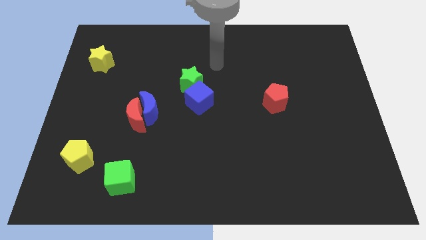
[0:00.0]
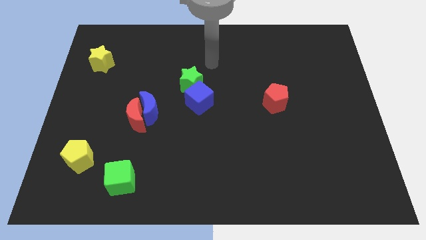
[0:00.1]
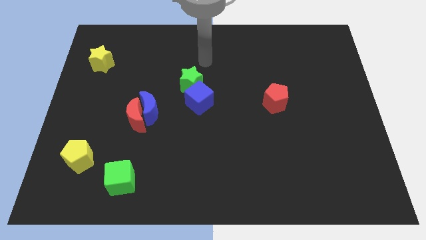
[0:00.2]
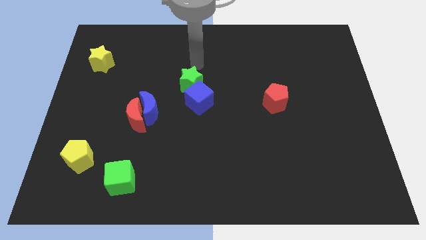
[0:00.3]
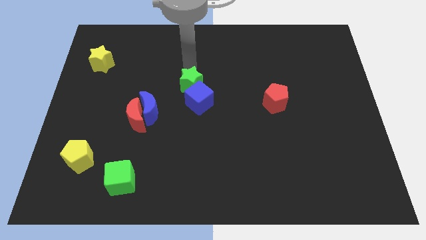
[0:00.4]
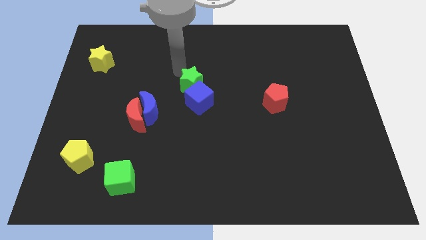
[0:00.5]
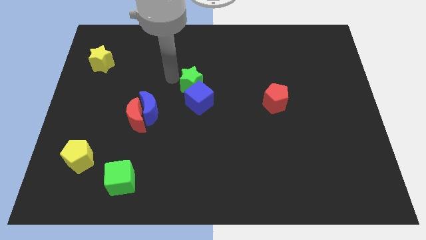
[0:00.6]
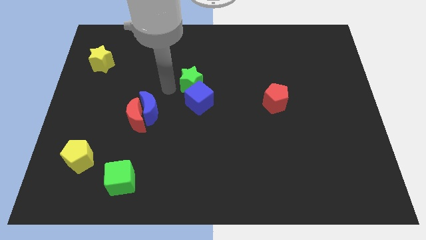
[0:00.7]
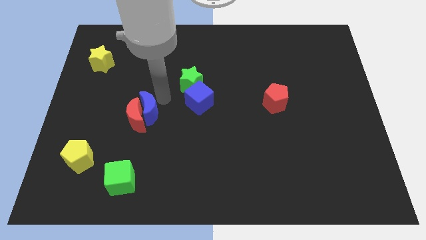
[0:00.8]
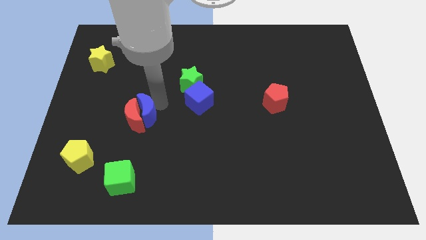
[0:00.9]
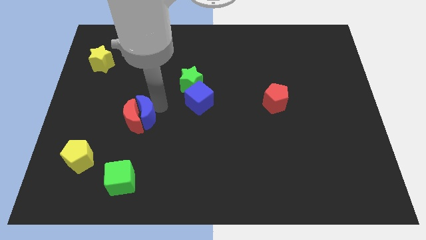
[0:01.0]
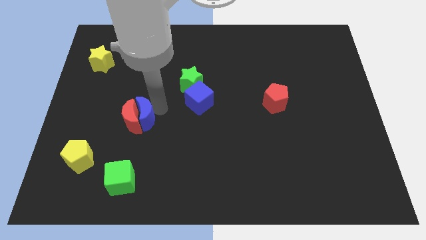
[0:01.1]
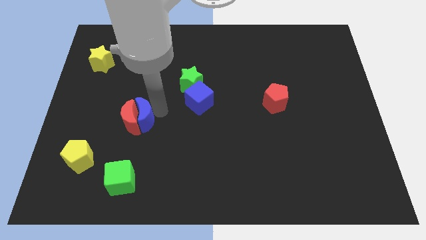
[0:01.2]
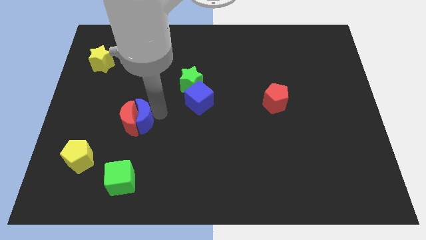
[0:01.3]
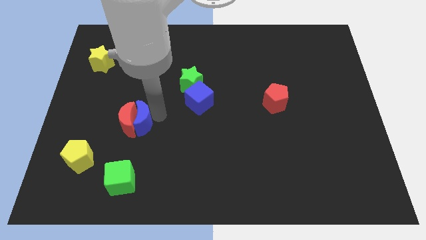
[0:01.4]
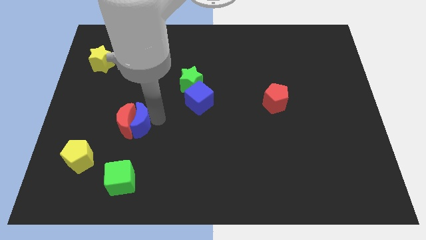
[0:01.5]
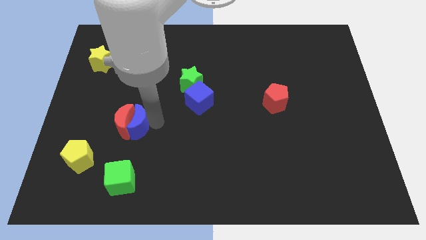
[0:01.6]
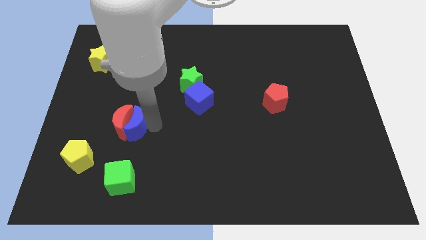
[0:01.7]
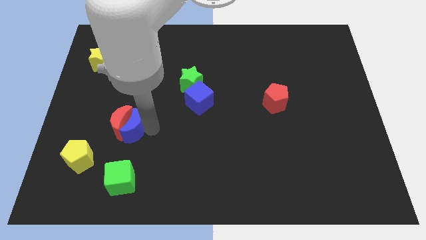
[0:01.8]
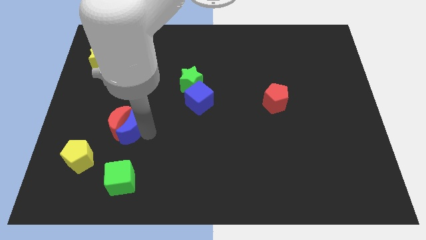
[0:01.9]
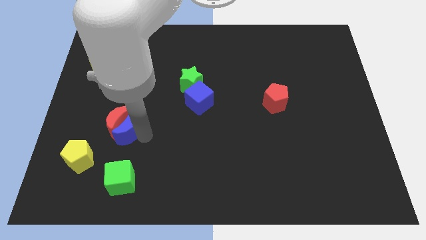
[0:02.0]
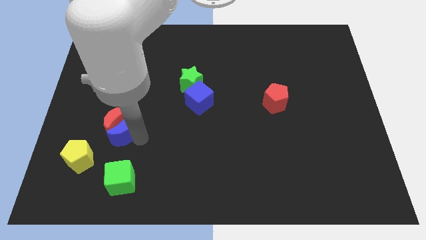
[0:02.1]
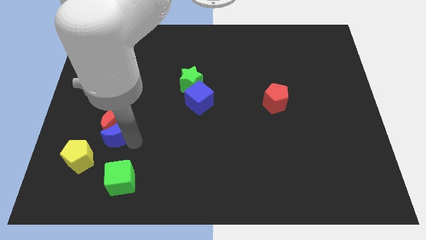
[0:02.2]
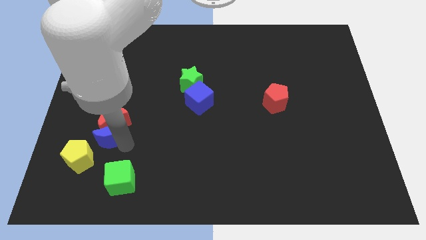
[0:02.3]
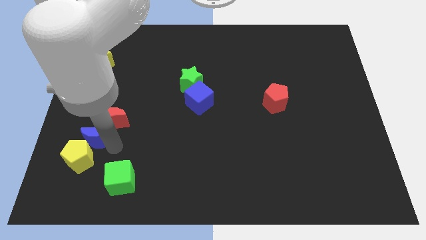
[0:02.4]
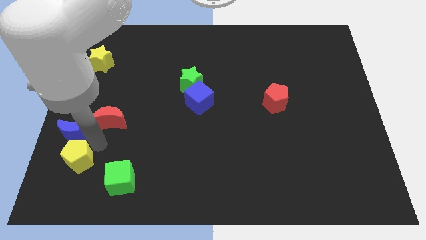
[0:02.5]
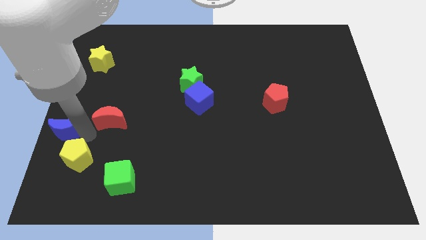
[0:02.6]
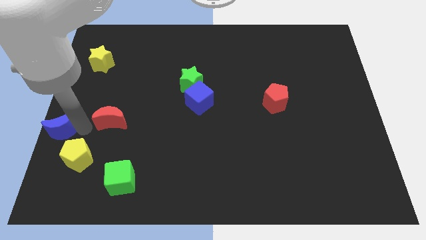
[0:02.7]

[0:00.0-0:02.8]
move the red moon away from the blue moon

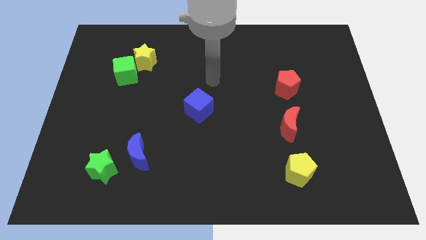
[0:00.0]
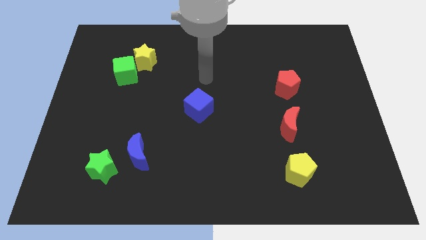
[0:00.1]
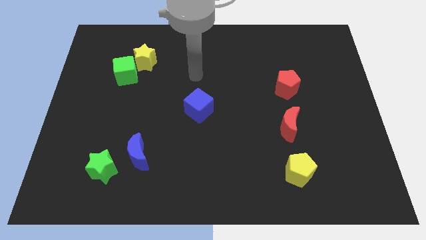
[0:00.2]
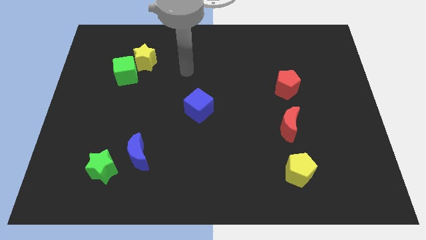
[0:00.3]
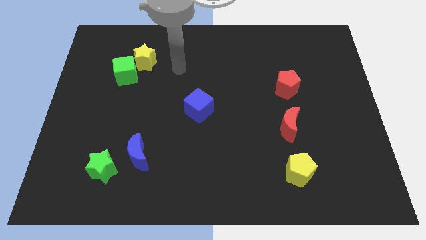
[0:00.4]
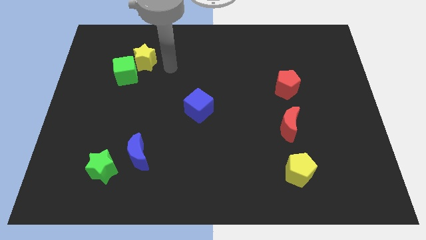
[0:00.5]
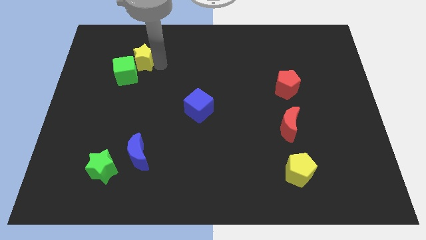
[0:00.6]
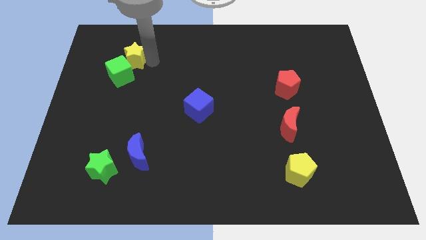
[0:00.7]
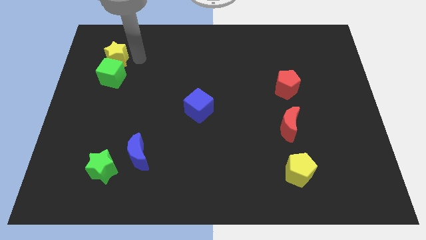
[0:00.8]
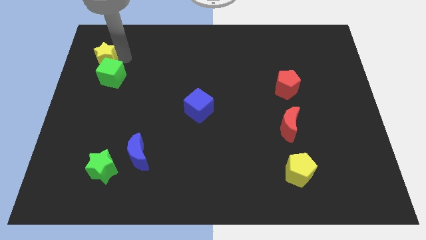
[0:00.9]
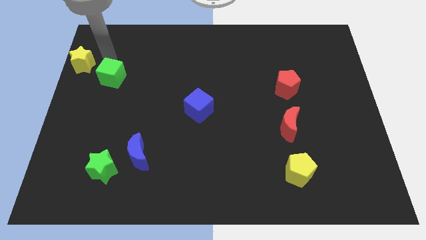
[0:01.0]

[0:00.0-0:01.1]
separate the green cube from the yellow star

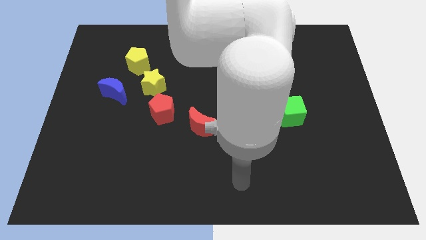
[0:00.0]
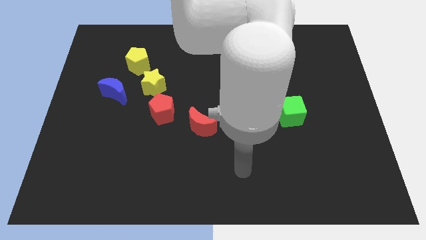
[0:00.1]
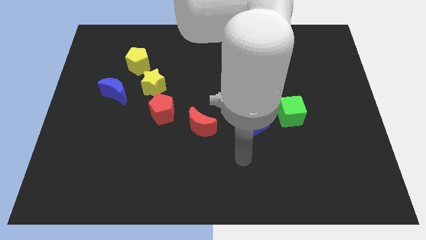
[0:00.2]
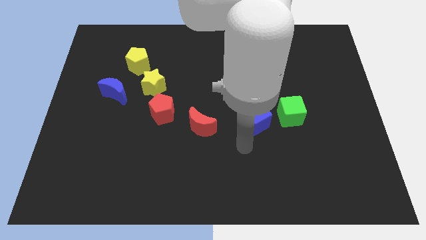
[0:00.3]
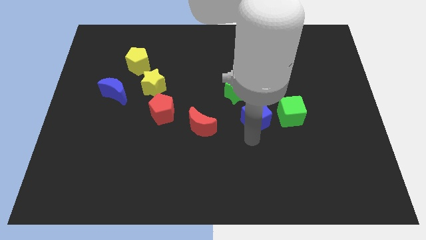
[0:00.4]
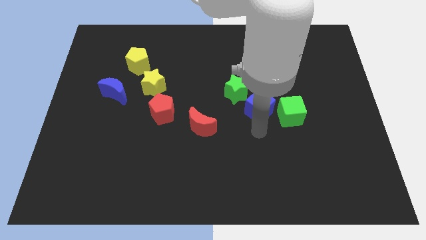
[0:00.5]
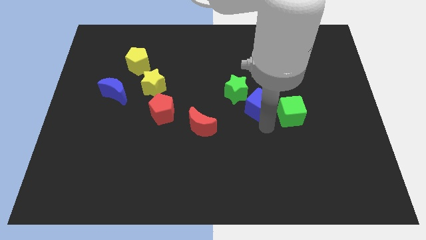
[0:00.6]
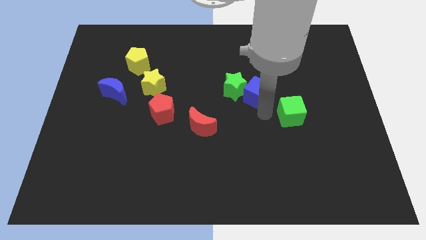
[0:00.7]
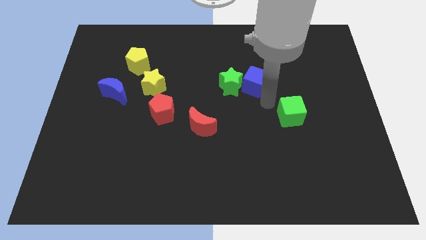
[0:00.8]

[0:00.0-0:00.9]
separate the green cube from the blue cube

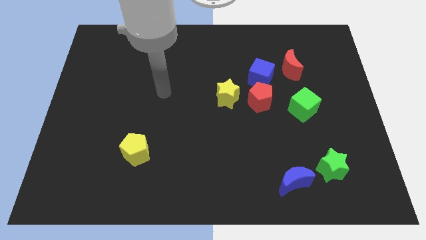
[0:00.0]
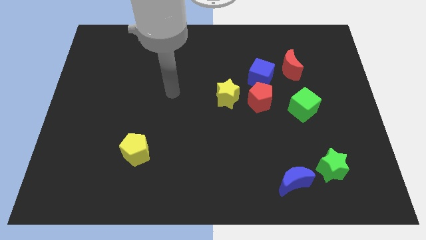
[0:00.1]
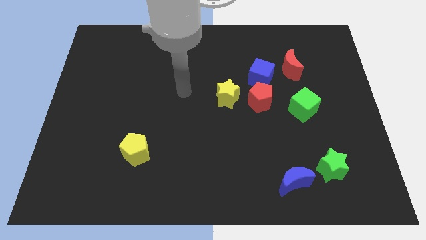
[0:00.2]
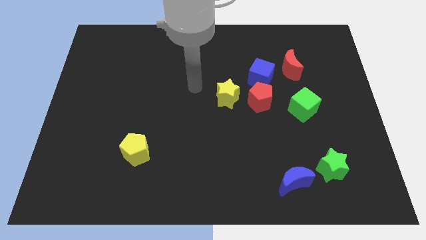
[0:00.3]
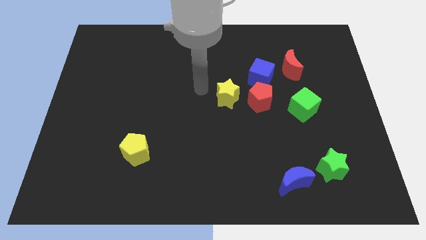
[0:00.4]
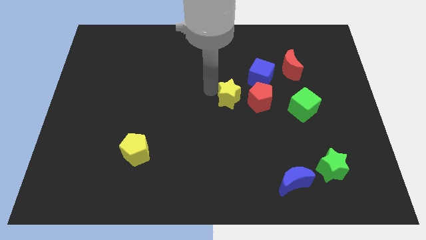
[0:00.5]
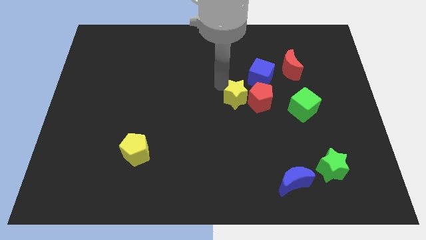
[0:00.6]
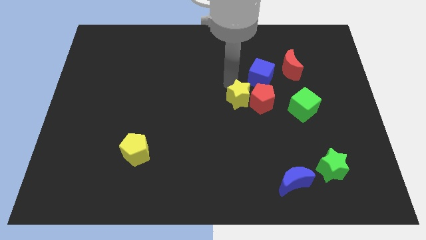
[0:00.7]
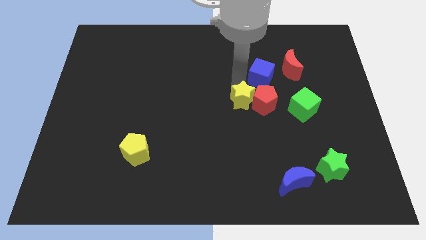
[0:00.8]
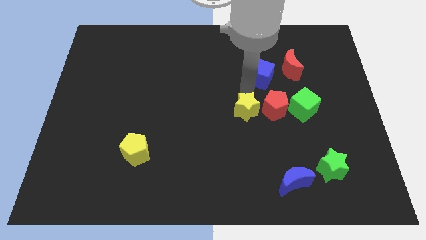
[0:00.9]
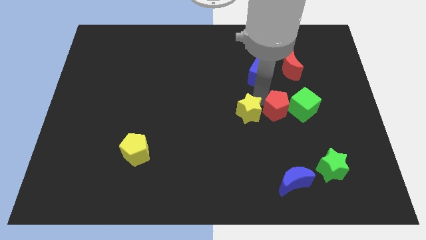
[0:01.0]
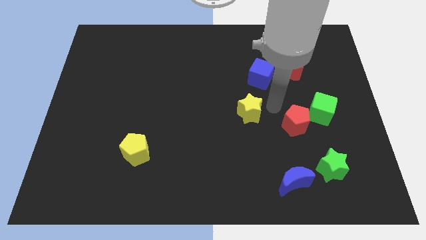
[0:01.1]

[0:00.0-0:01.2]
move the yellow star away from the red pentagon

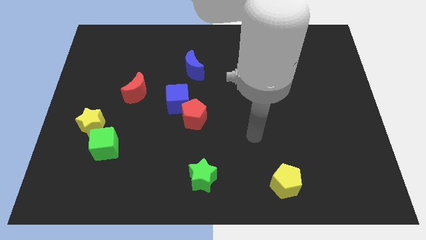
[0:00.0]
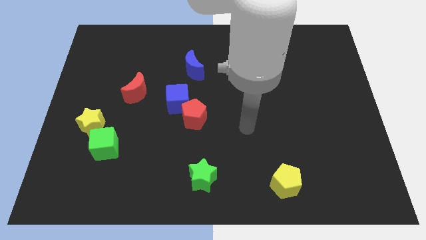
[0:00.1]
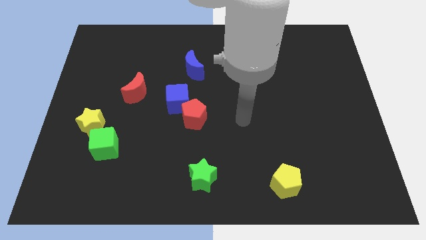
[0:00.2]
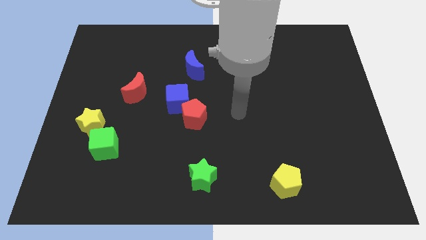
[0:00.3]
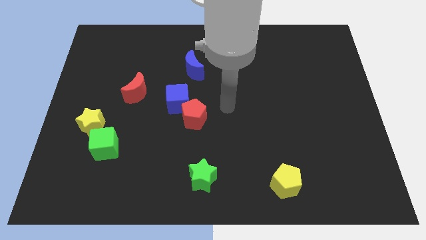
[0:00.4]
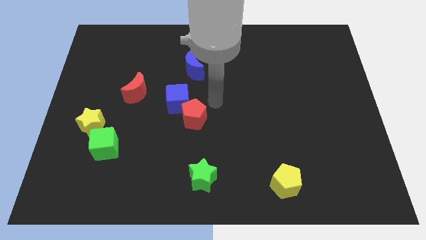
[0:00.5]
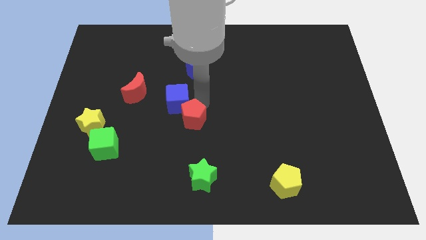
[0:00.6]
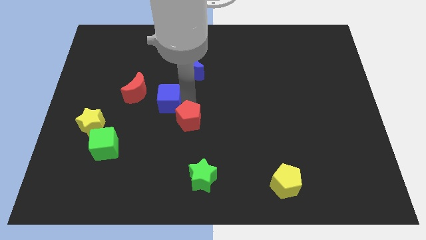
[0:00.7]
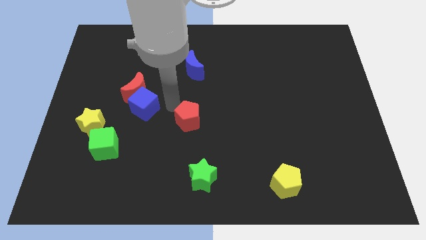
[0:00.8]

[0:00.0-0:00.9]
pull the red pentagon apart from the blue cube

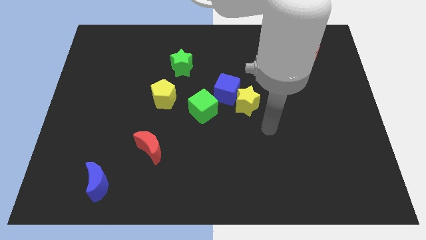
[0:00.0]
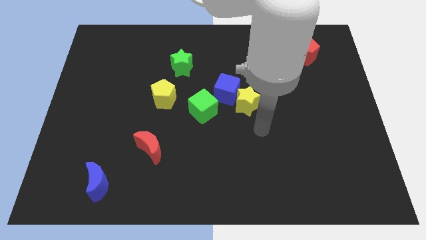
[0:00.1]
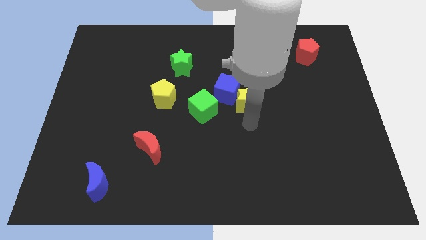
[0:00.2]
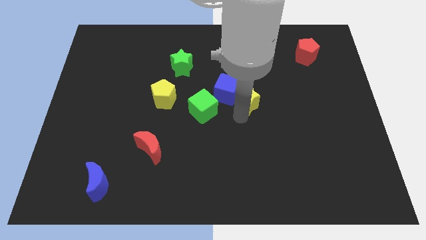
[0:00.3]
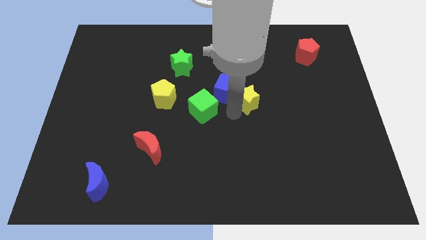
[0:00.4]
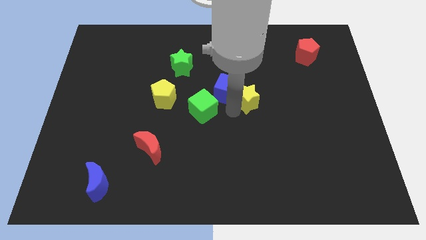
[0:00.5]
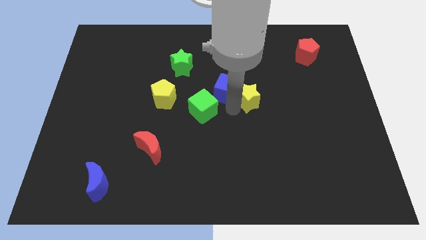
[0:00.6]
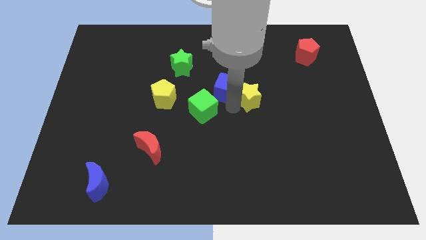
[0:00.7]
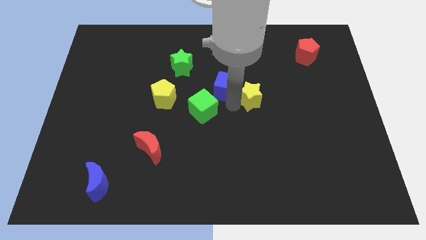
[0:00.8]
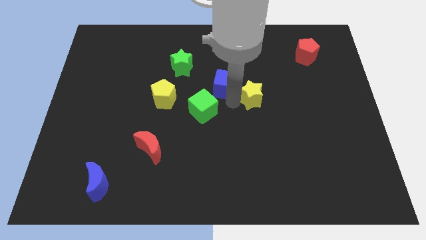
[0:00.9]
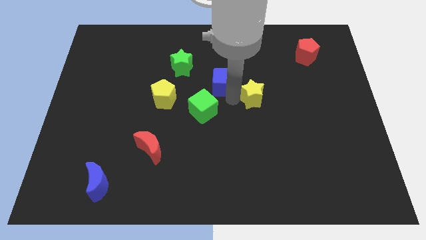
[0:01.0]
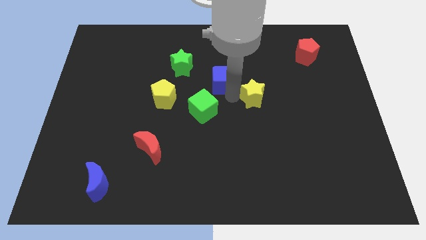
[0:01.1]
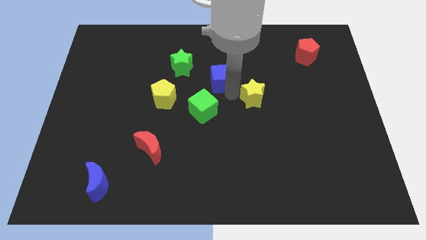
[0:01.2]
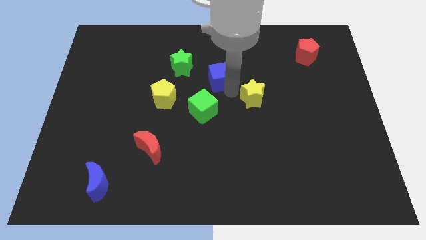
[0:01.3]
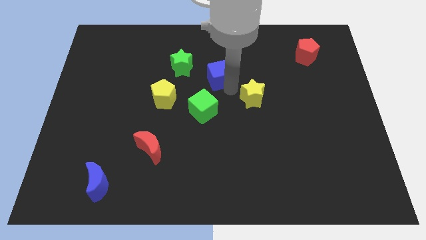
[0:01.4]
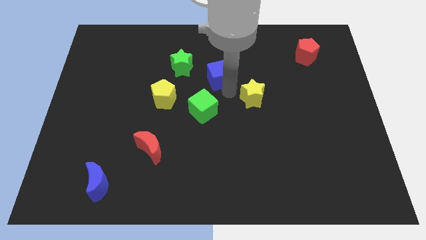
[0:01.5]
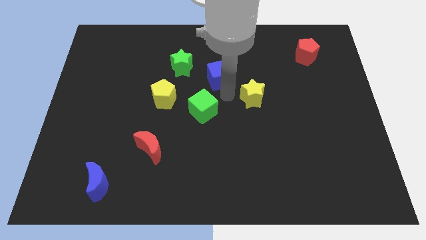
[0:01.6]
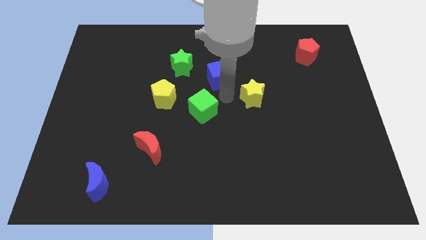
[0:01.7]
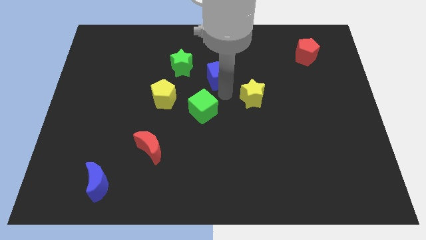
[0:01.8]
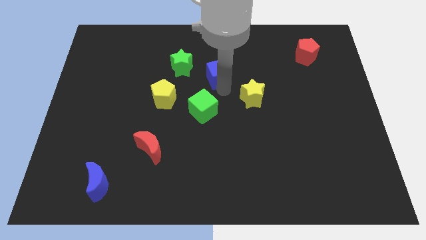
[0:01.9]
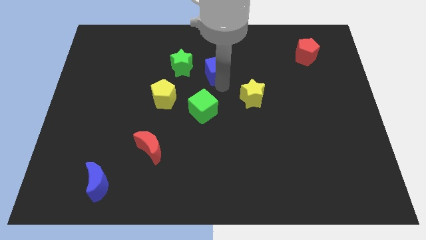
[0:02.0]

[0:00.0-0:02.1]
pull the blue cube apart from the yellow star and green cube
